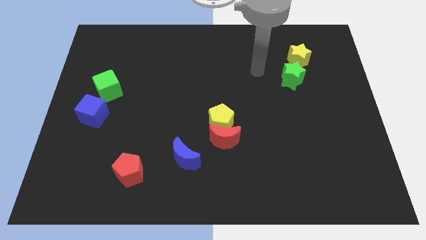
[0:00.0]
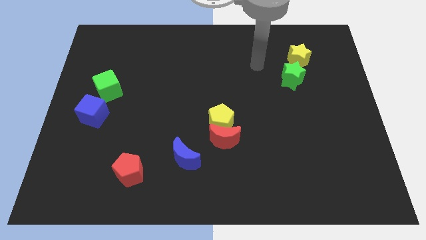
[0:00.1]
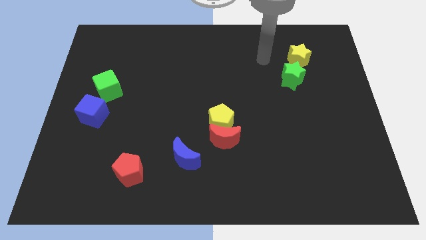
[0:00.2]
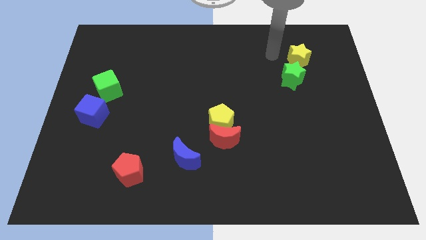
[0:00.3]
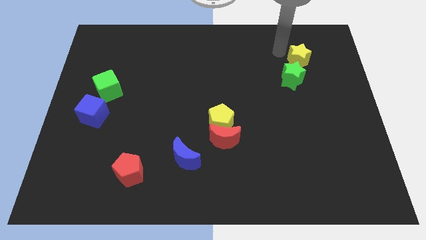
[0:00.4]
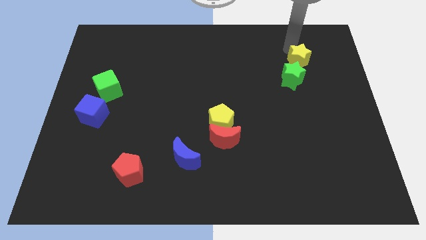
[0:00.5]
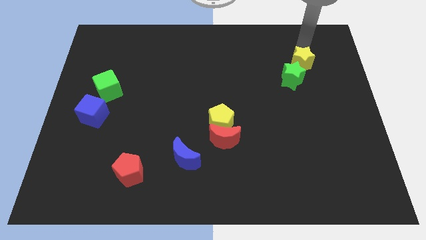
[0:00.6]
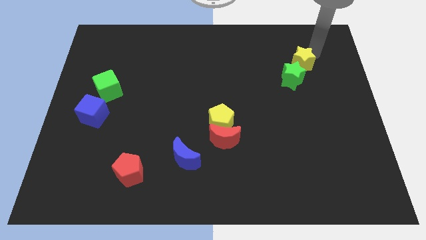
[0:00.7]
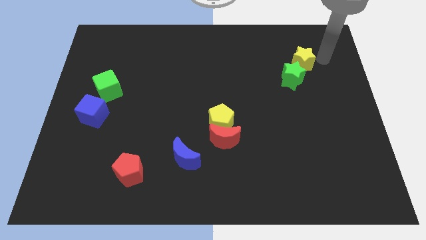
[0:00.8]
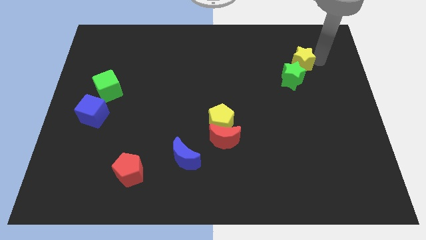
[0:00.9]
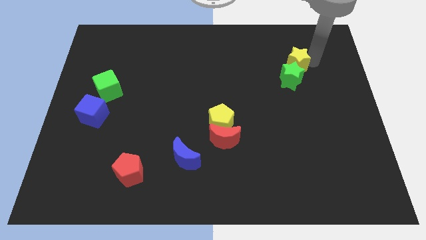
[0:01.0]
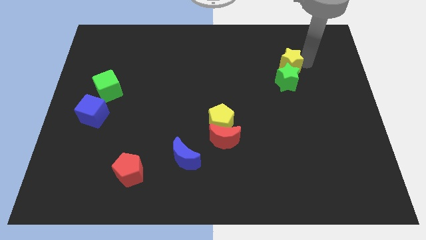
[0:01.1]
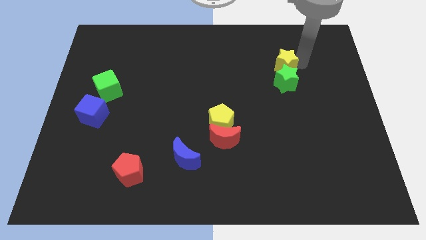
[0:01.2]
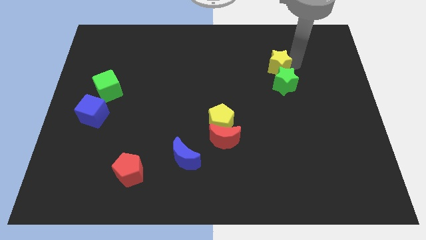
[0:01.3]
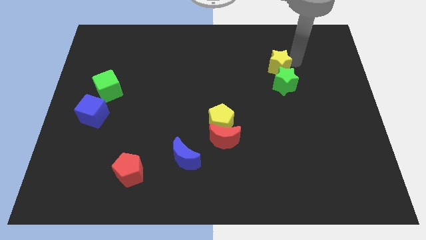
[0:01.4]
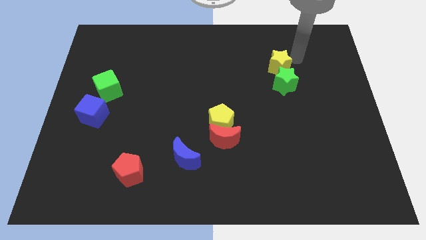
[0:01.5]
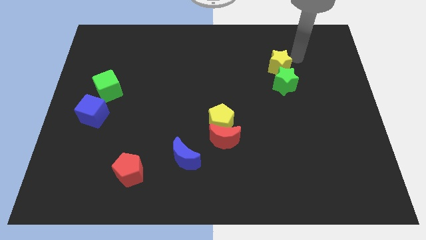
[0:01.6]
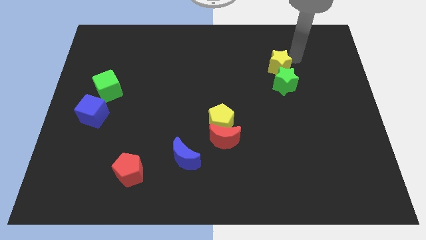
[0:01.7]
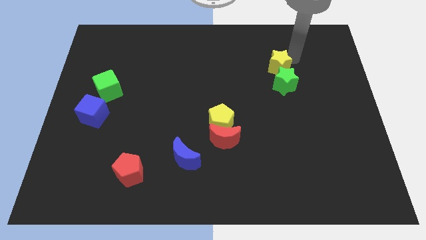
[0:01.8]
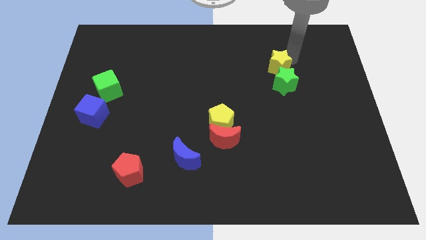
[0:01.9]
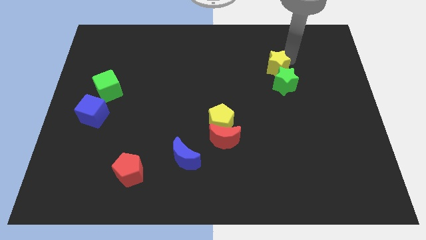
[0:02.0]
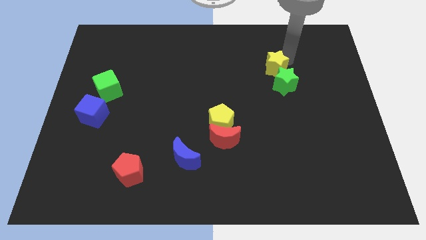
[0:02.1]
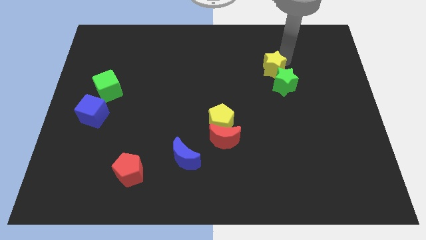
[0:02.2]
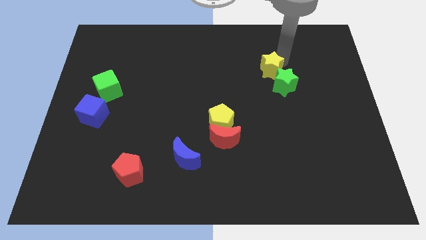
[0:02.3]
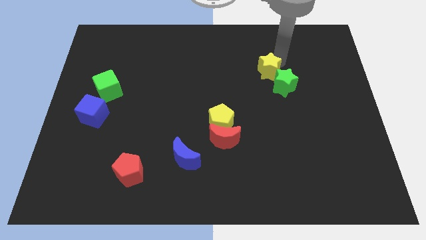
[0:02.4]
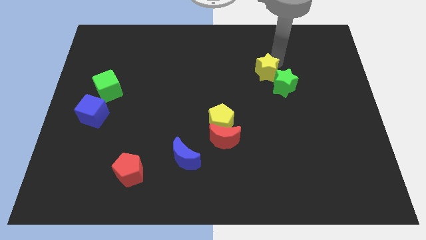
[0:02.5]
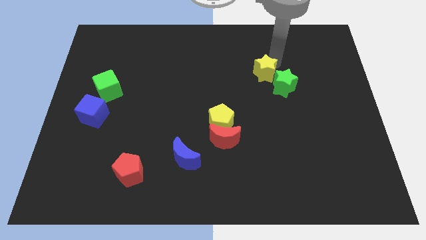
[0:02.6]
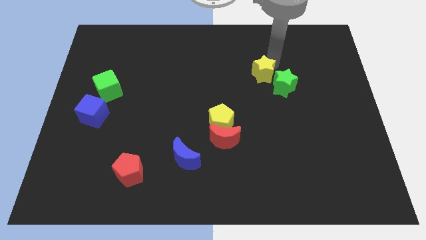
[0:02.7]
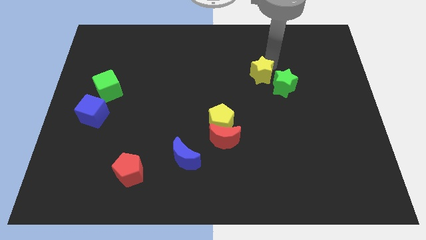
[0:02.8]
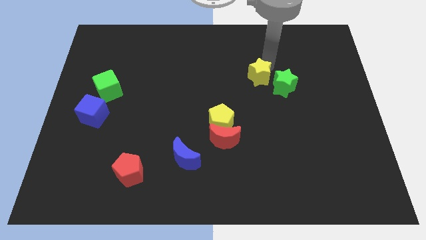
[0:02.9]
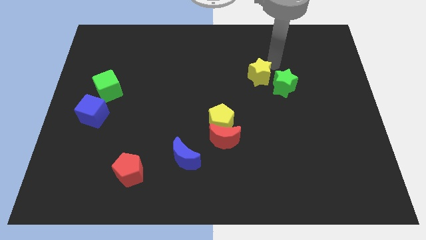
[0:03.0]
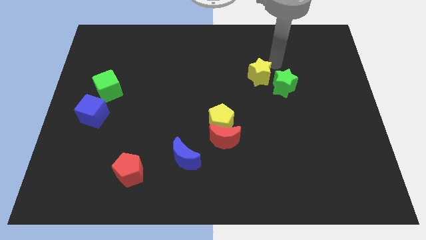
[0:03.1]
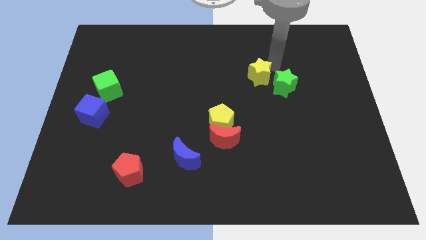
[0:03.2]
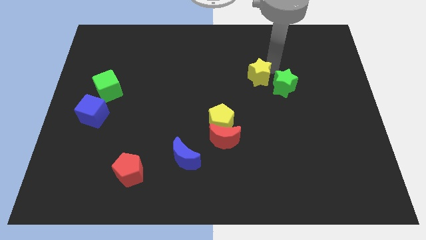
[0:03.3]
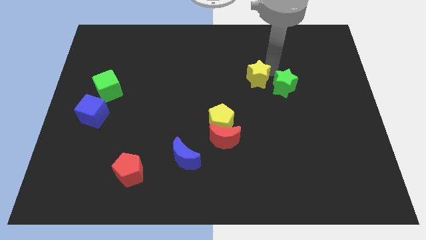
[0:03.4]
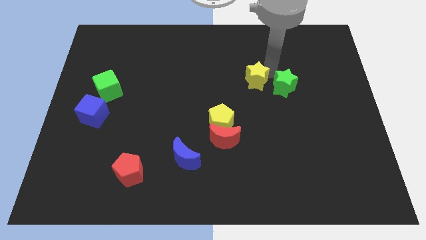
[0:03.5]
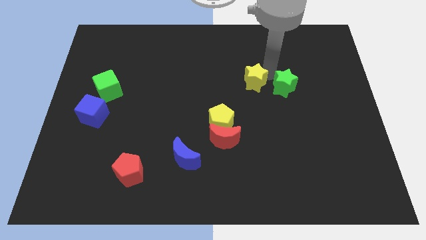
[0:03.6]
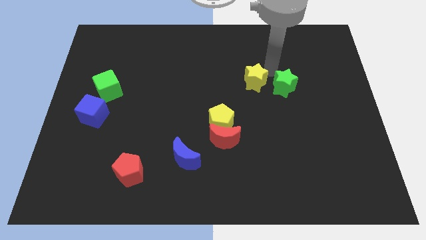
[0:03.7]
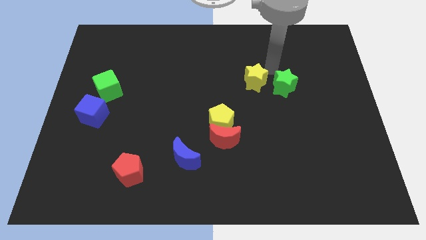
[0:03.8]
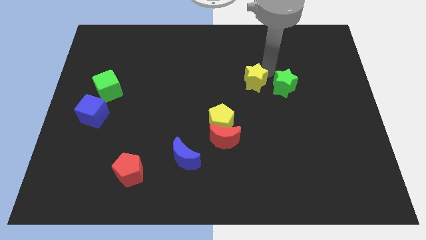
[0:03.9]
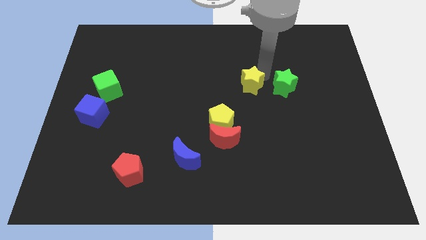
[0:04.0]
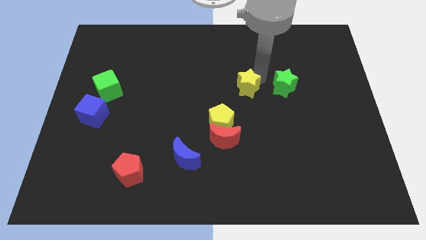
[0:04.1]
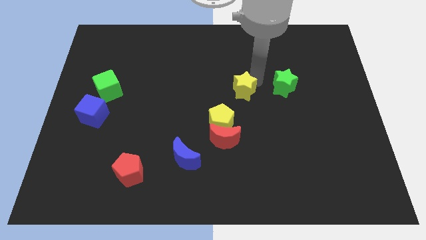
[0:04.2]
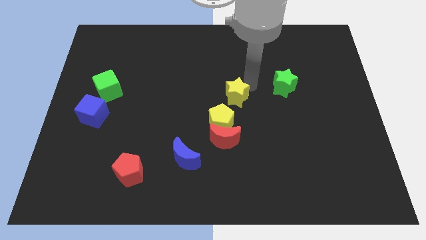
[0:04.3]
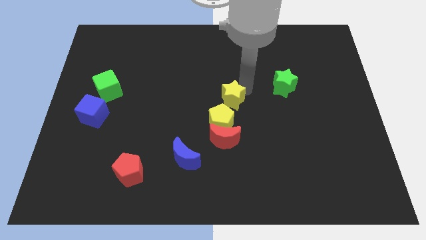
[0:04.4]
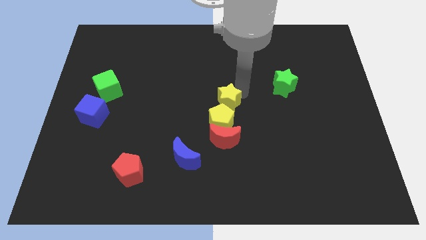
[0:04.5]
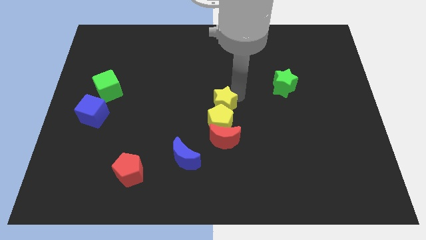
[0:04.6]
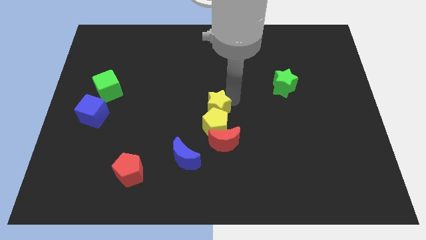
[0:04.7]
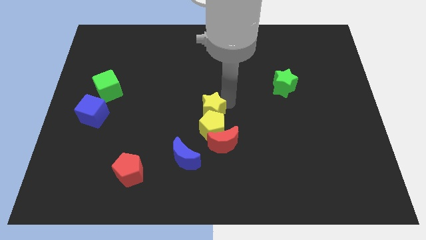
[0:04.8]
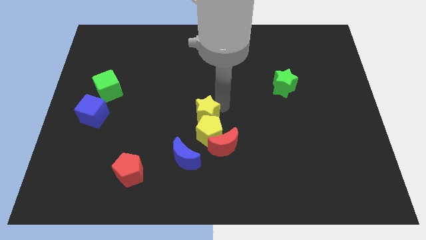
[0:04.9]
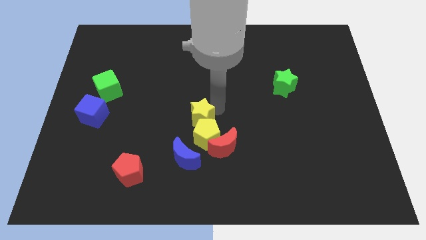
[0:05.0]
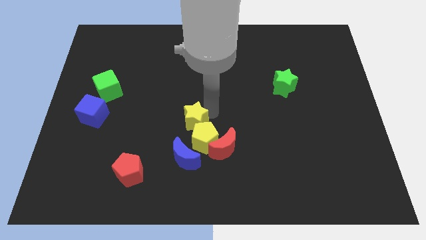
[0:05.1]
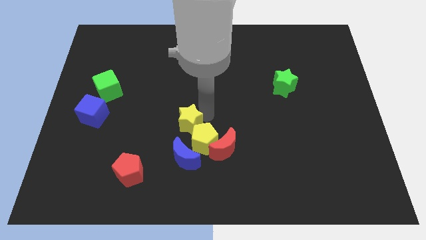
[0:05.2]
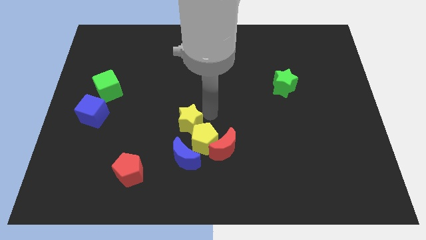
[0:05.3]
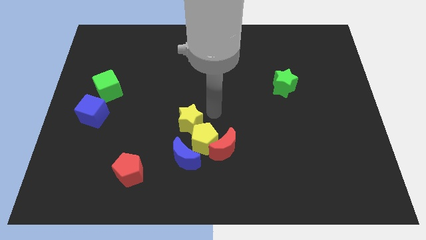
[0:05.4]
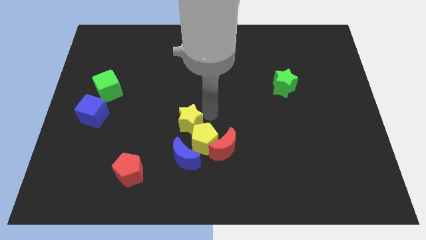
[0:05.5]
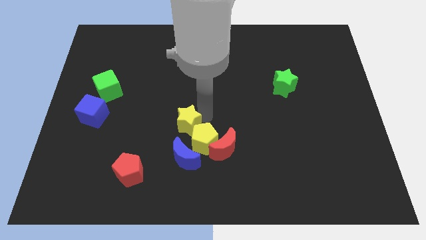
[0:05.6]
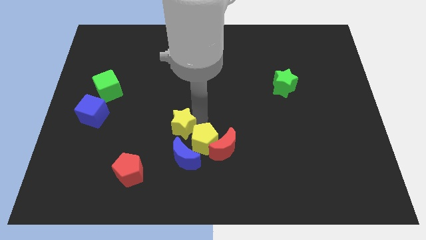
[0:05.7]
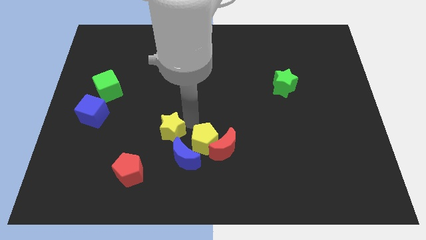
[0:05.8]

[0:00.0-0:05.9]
push the yellow star to the top right side of the red pentagon

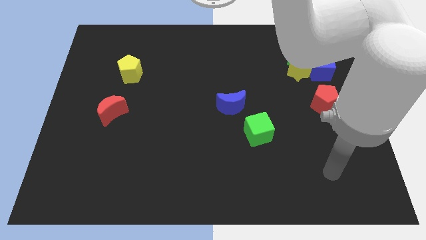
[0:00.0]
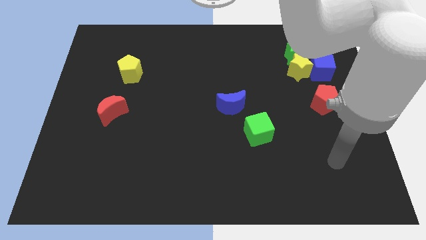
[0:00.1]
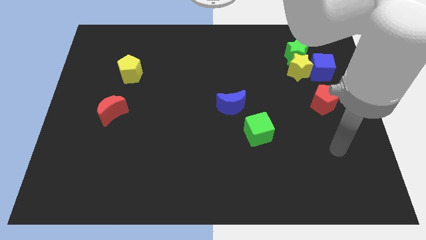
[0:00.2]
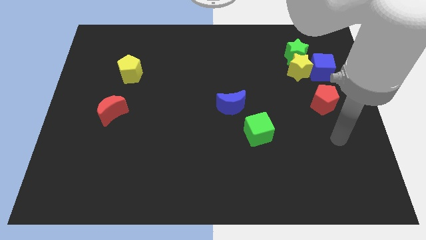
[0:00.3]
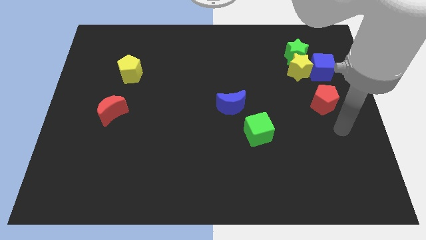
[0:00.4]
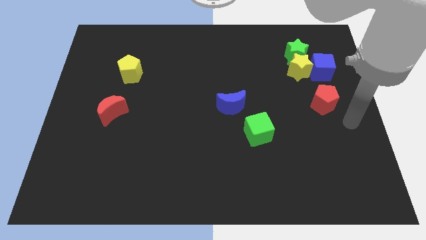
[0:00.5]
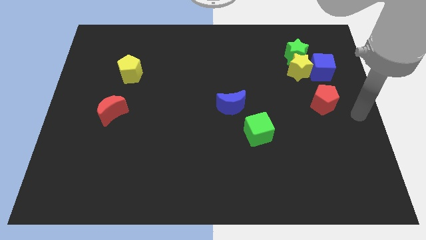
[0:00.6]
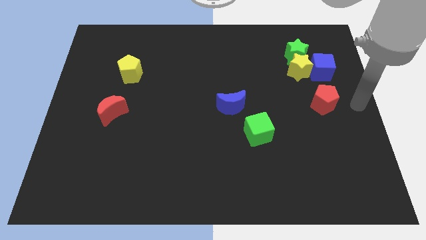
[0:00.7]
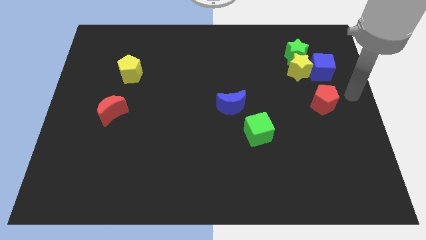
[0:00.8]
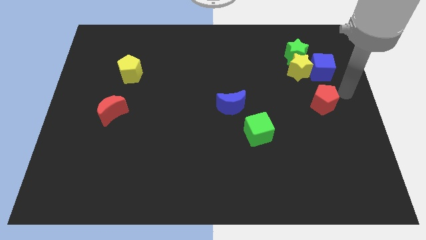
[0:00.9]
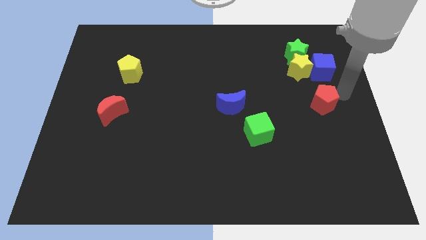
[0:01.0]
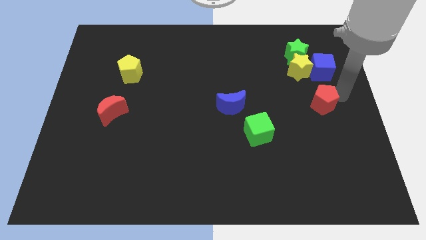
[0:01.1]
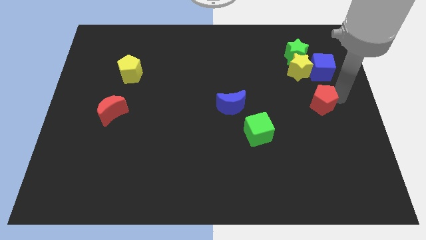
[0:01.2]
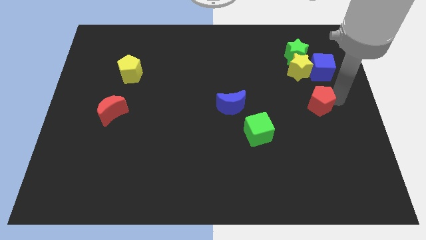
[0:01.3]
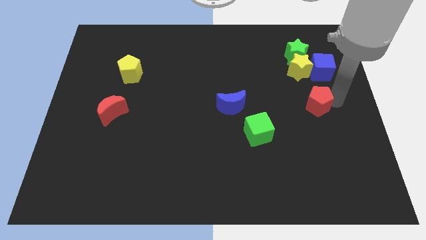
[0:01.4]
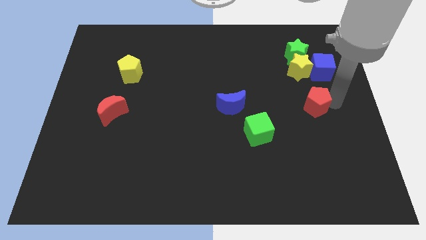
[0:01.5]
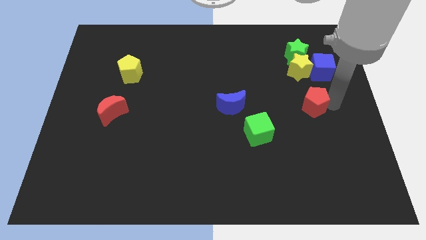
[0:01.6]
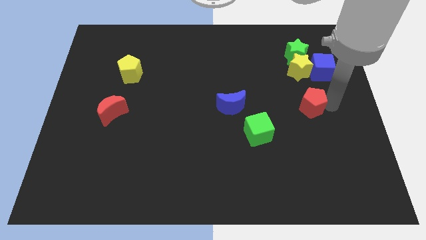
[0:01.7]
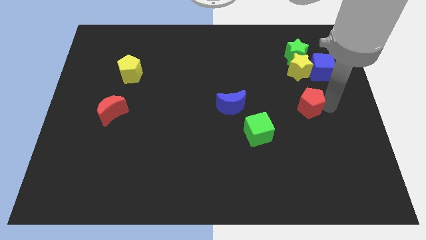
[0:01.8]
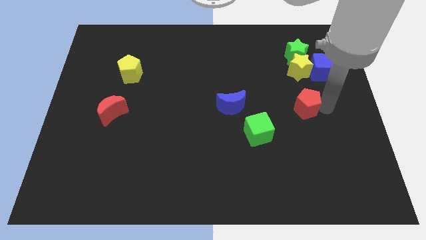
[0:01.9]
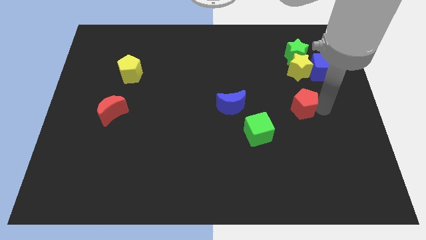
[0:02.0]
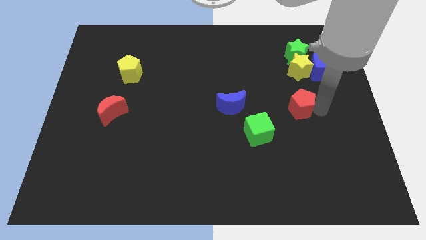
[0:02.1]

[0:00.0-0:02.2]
slide the red pentagon diagonally up and to the right of the green cube
